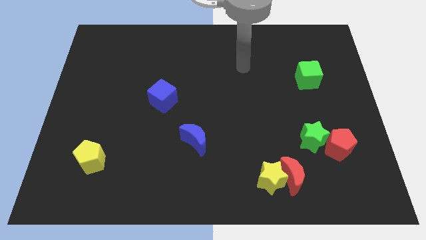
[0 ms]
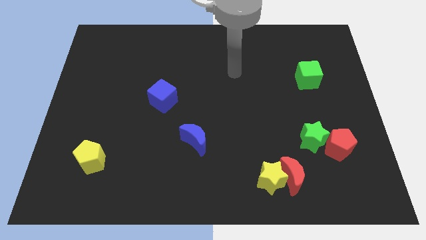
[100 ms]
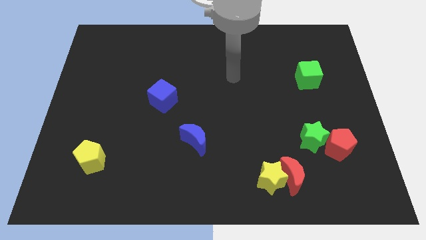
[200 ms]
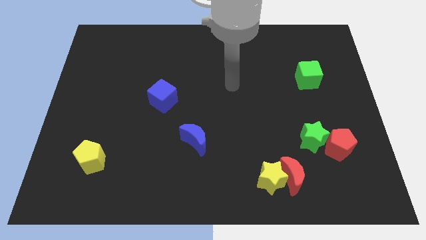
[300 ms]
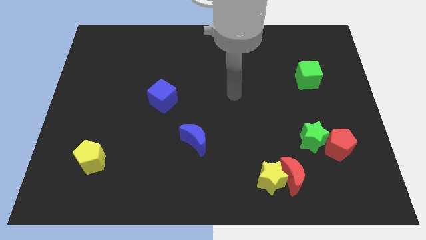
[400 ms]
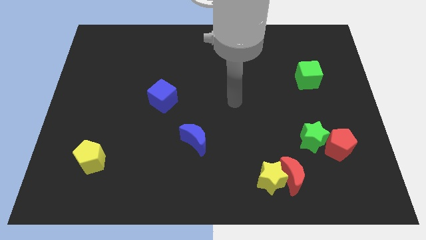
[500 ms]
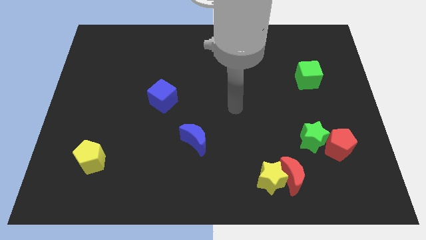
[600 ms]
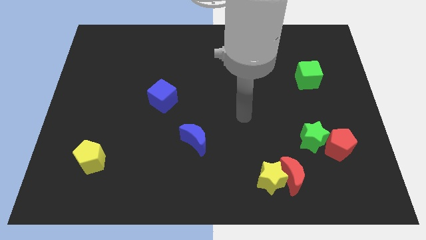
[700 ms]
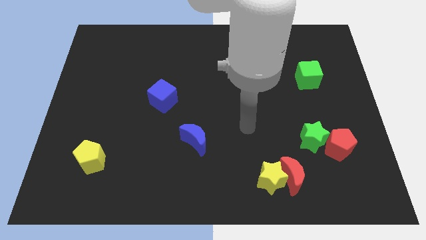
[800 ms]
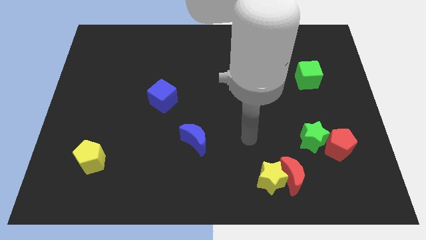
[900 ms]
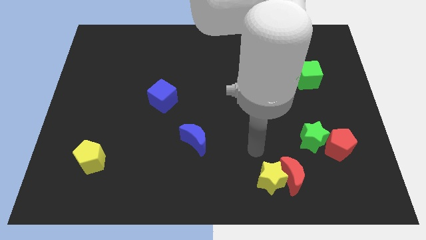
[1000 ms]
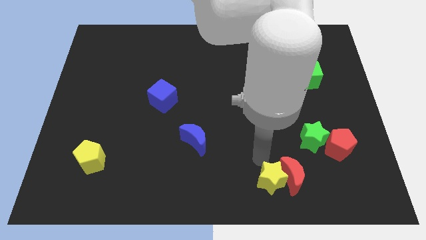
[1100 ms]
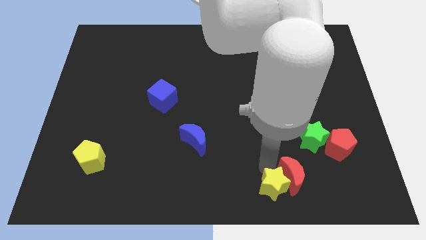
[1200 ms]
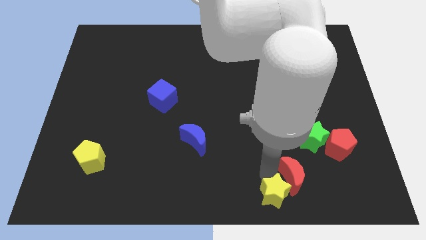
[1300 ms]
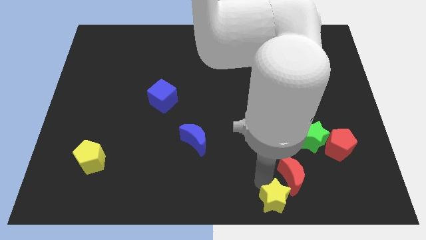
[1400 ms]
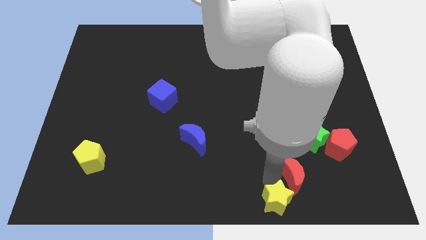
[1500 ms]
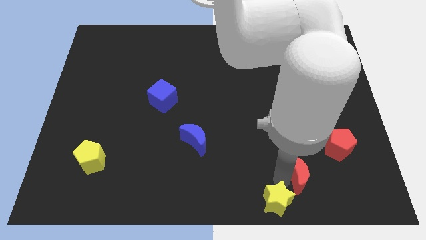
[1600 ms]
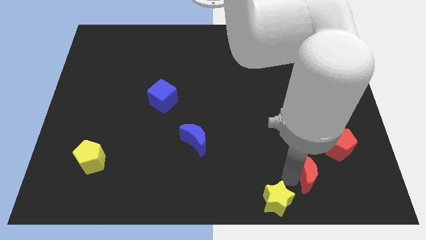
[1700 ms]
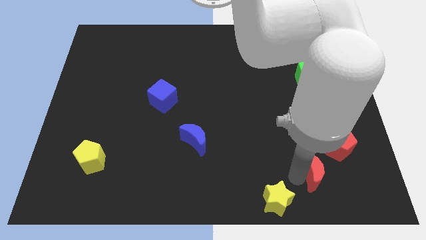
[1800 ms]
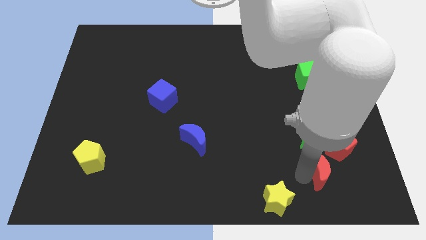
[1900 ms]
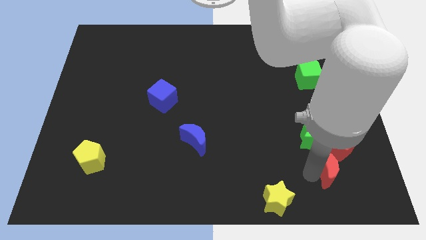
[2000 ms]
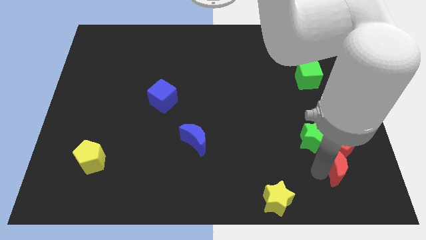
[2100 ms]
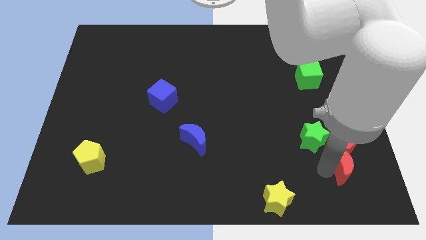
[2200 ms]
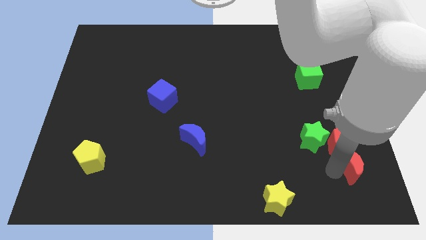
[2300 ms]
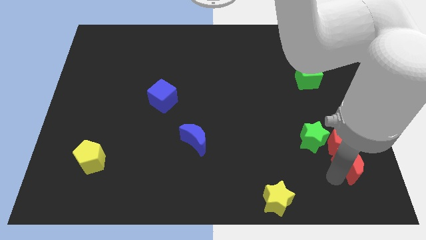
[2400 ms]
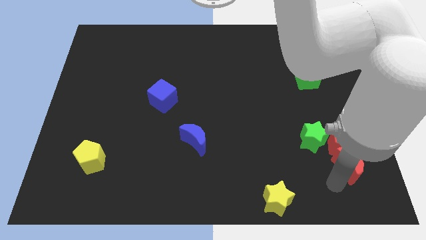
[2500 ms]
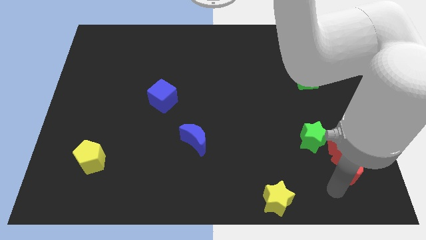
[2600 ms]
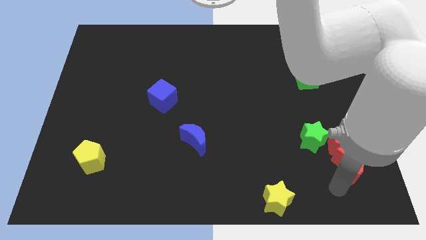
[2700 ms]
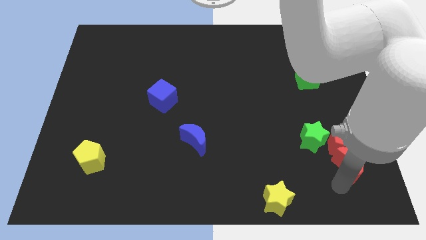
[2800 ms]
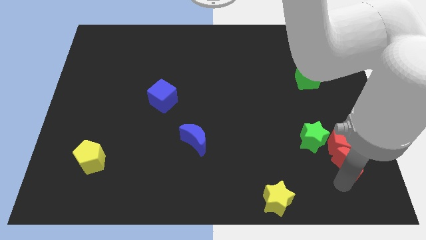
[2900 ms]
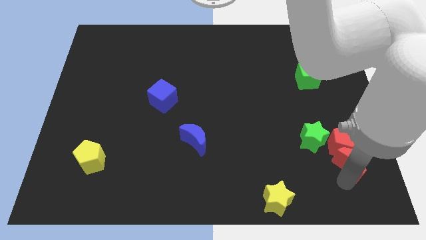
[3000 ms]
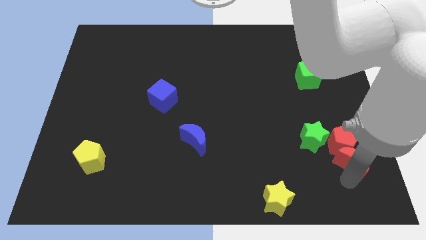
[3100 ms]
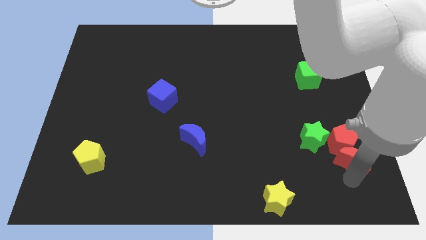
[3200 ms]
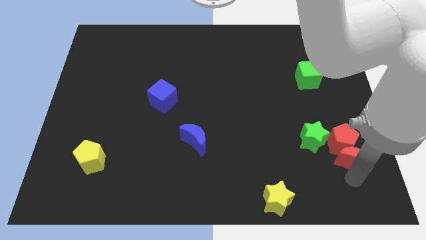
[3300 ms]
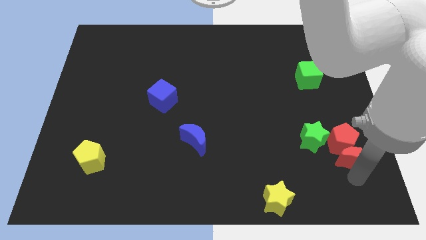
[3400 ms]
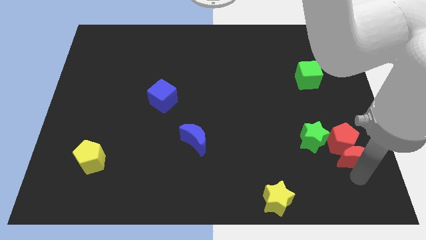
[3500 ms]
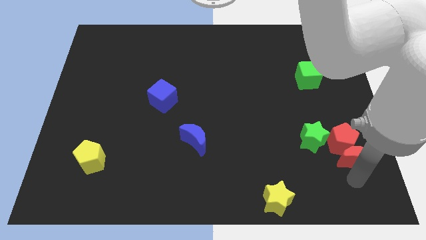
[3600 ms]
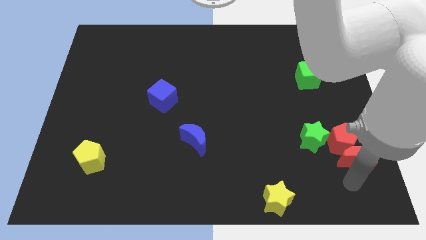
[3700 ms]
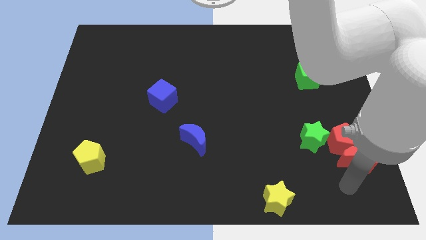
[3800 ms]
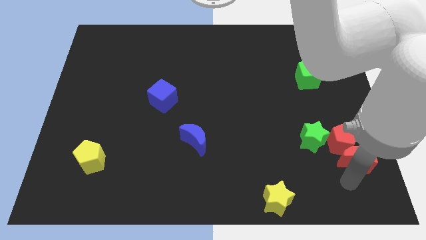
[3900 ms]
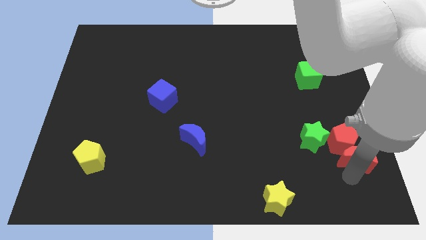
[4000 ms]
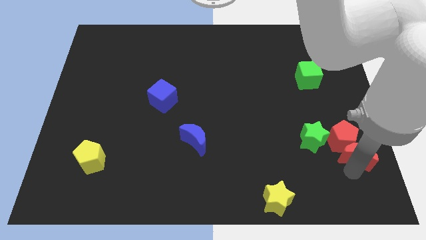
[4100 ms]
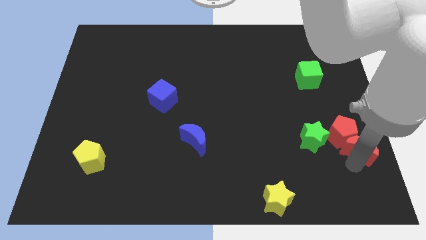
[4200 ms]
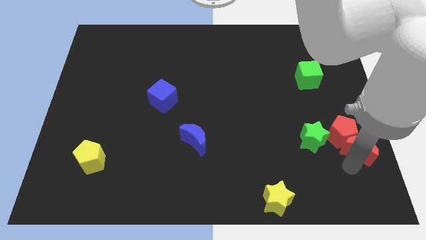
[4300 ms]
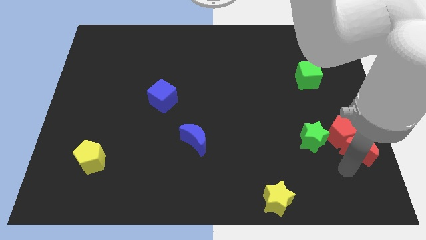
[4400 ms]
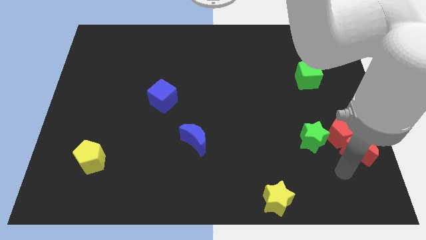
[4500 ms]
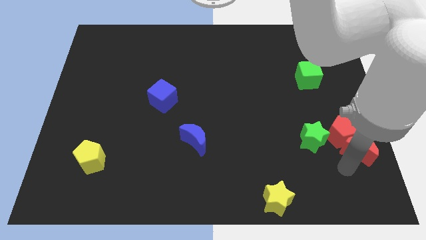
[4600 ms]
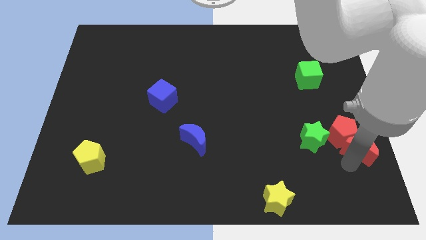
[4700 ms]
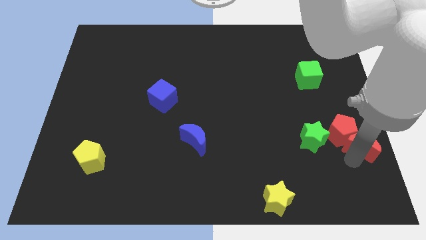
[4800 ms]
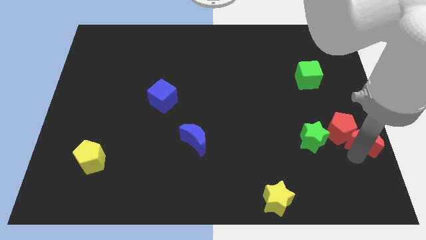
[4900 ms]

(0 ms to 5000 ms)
push the red moon to the center right

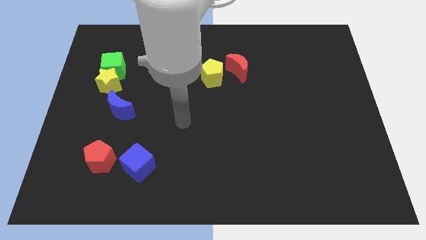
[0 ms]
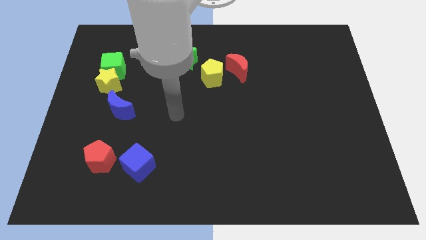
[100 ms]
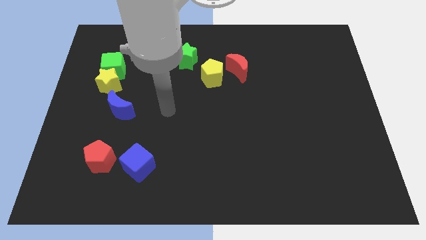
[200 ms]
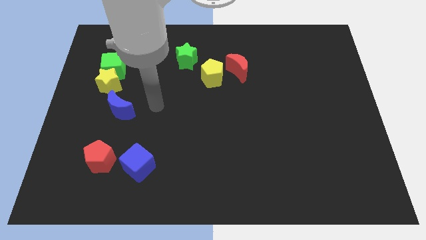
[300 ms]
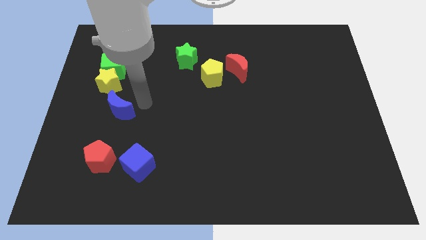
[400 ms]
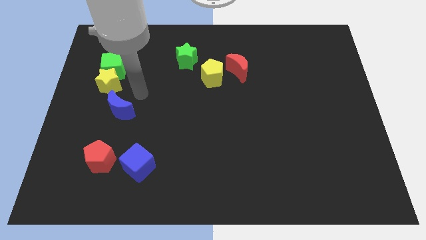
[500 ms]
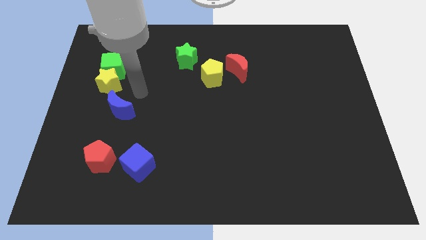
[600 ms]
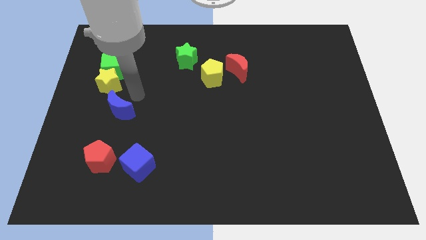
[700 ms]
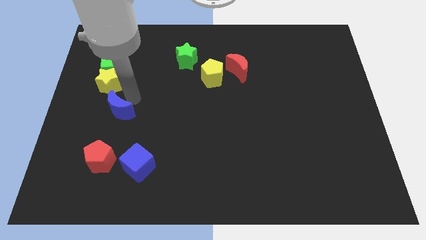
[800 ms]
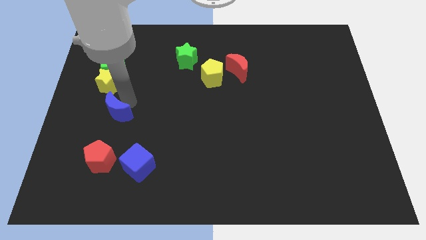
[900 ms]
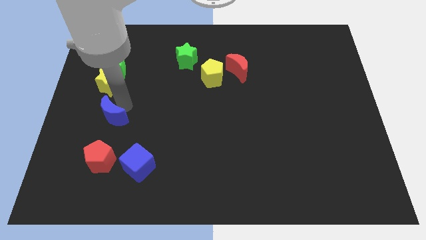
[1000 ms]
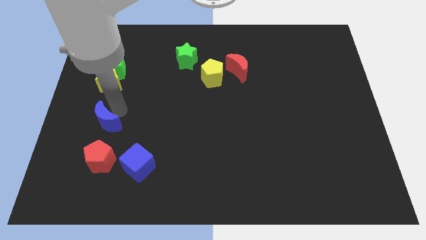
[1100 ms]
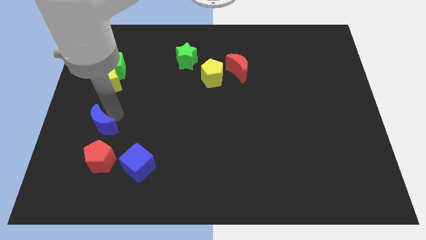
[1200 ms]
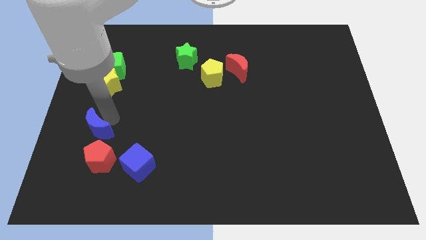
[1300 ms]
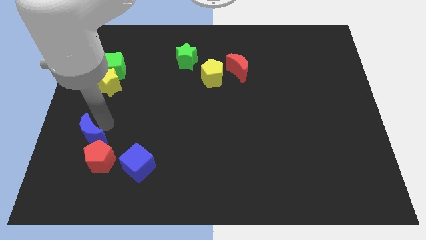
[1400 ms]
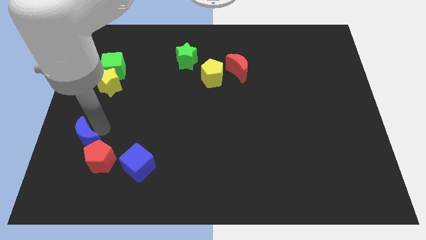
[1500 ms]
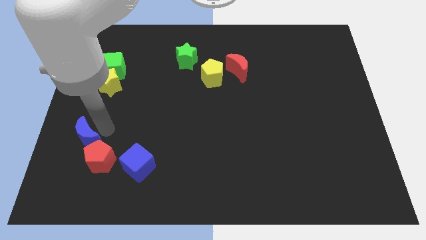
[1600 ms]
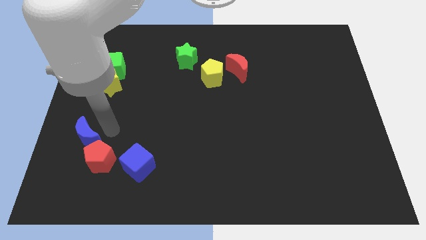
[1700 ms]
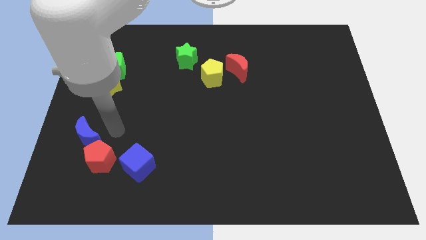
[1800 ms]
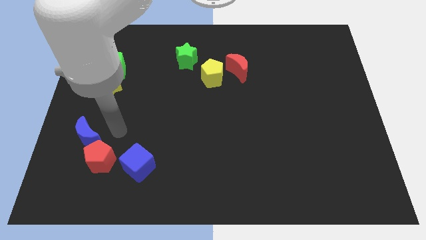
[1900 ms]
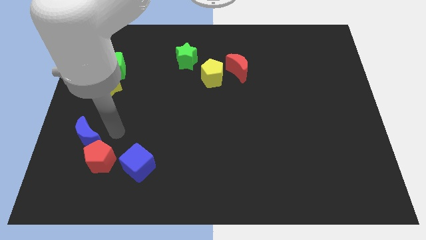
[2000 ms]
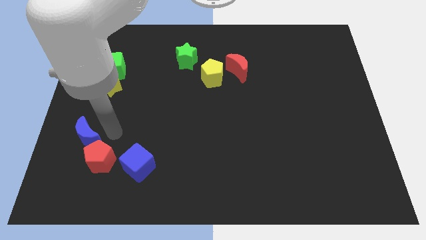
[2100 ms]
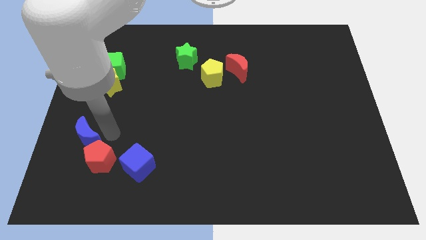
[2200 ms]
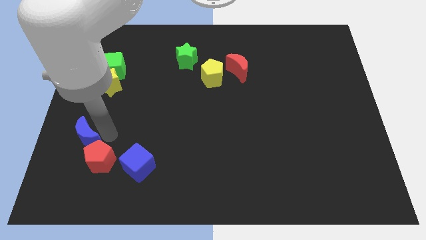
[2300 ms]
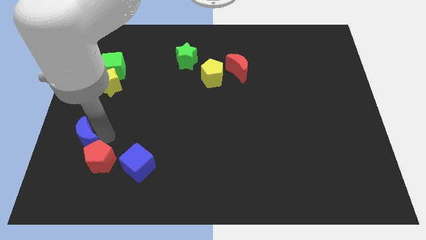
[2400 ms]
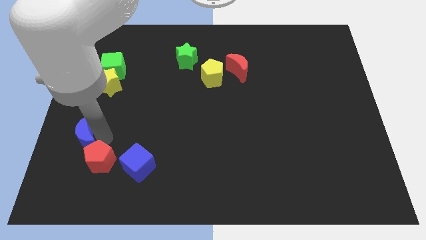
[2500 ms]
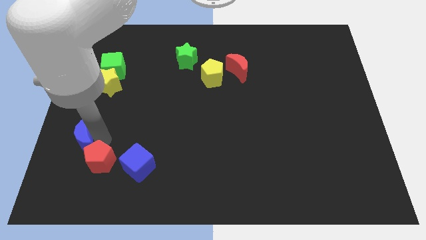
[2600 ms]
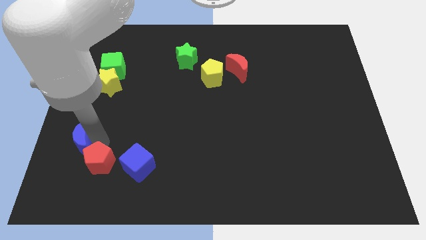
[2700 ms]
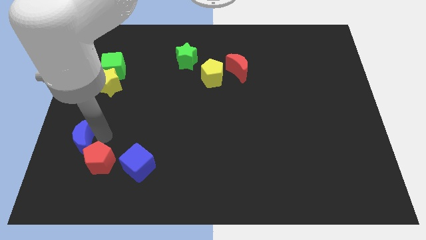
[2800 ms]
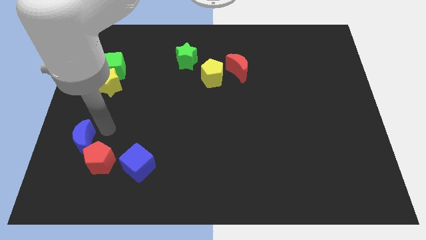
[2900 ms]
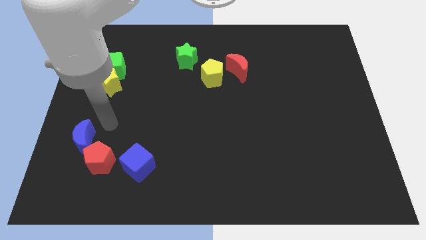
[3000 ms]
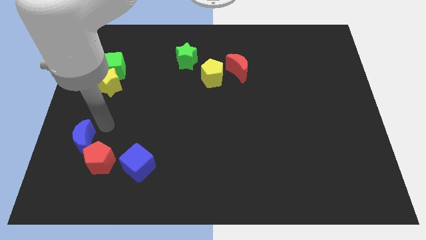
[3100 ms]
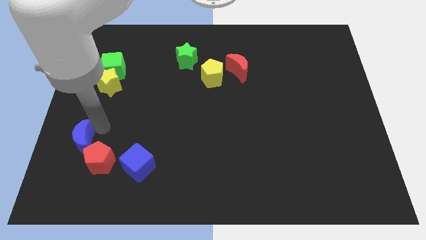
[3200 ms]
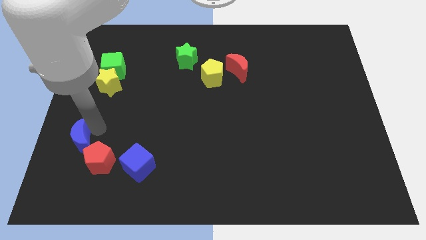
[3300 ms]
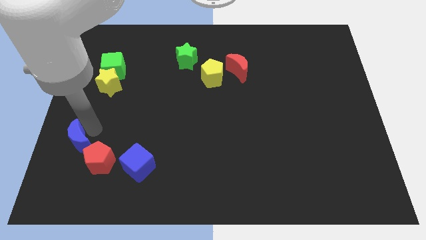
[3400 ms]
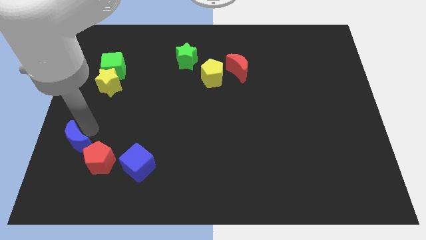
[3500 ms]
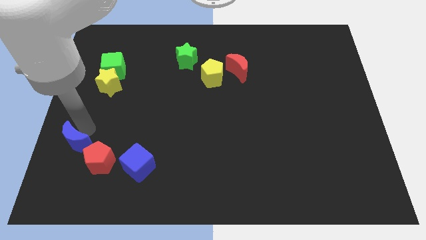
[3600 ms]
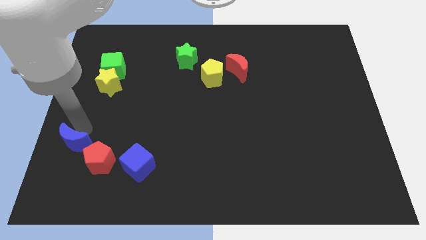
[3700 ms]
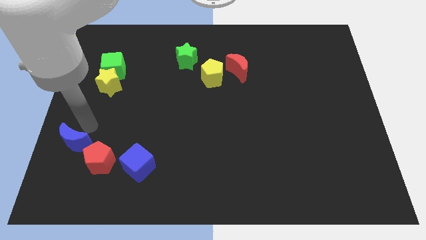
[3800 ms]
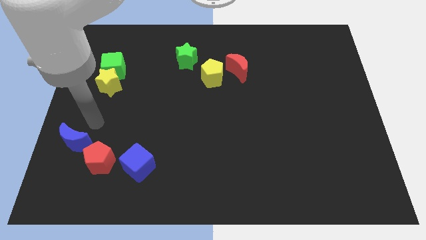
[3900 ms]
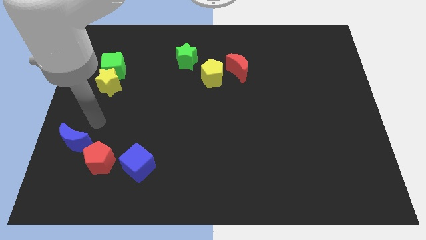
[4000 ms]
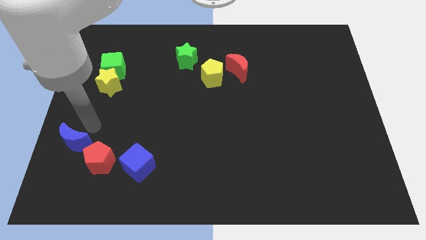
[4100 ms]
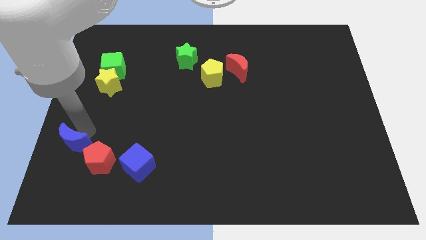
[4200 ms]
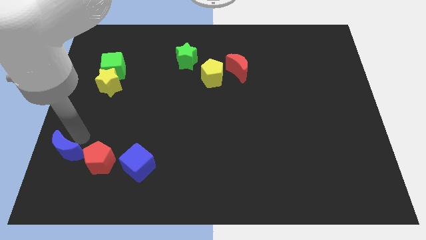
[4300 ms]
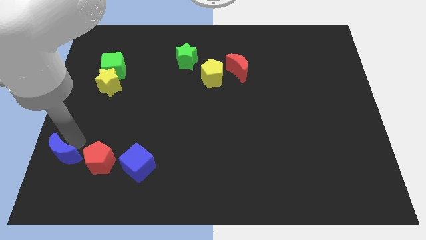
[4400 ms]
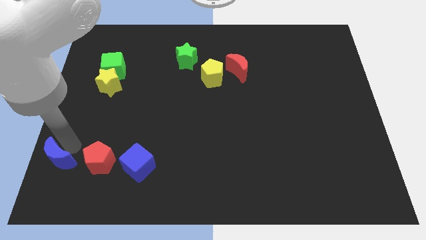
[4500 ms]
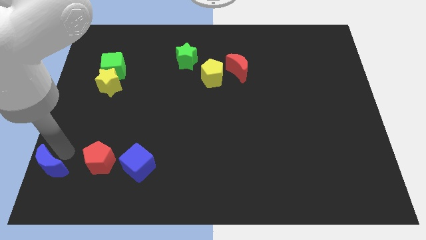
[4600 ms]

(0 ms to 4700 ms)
move the blue moon to the bottom left of the board
